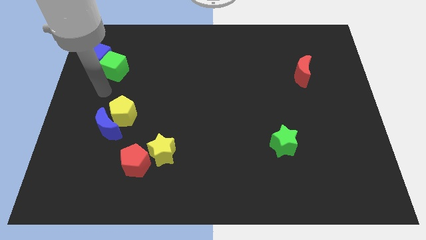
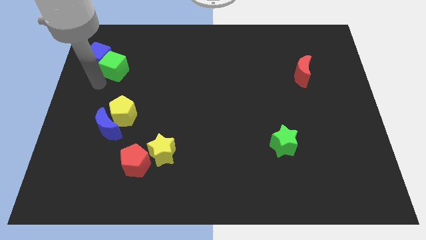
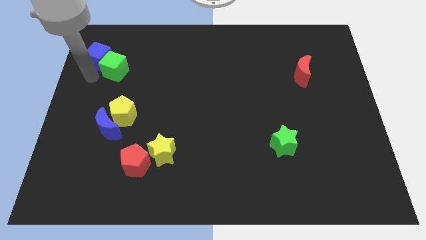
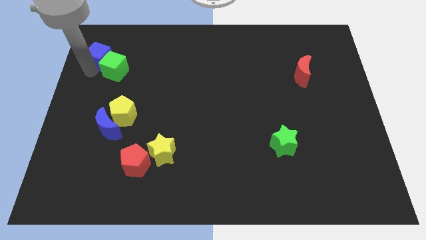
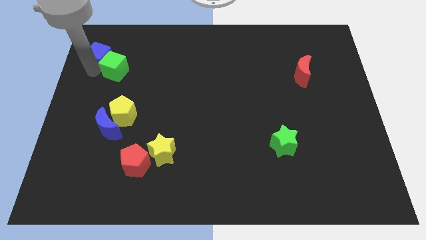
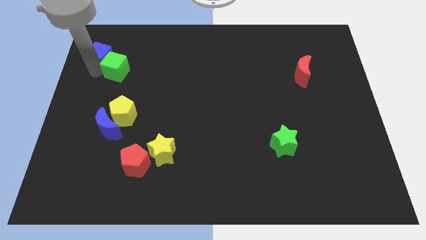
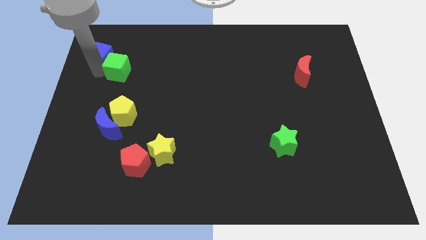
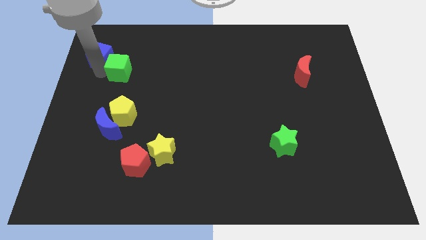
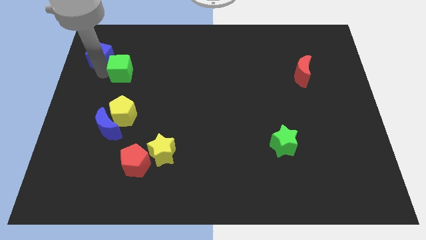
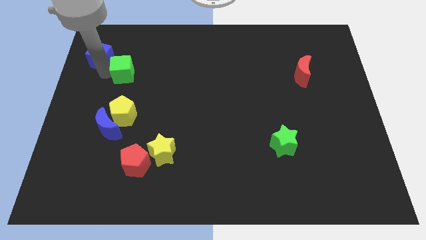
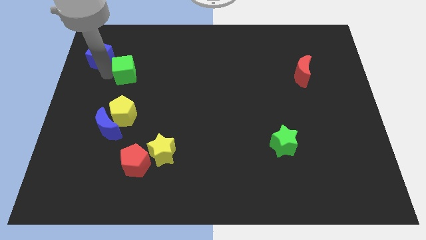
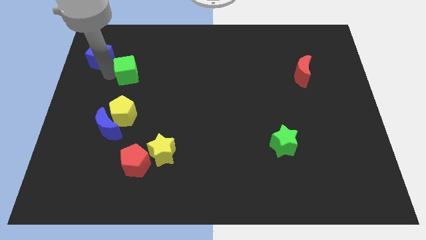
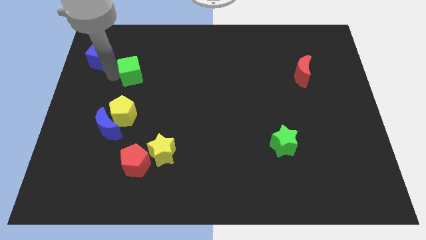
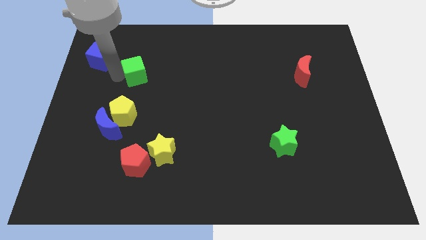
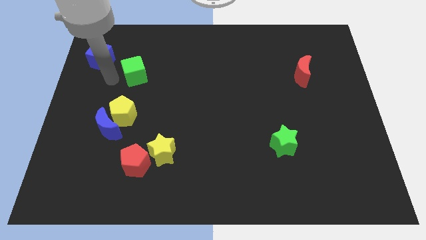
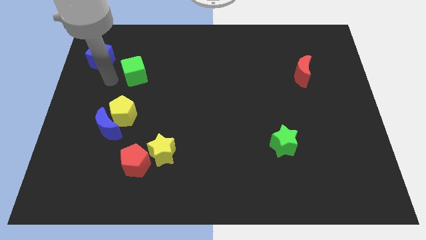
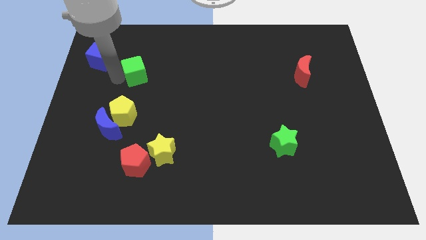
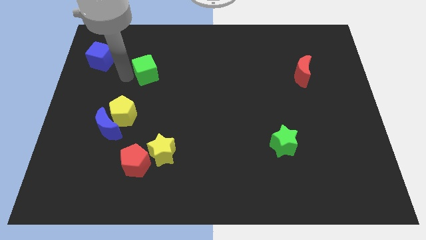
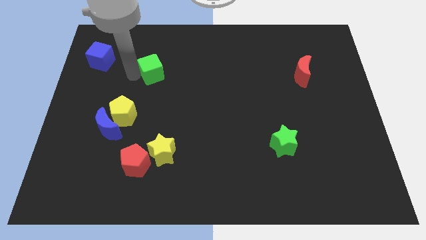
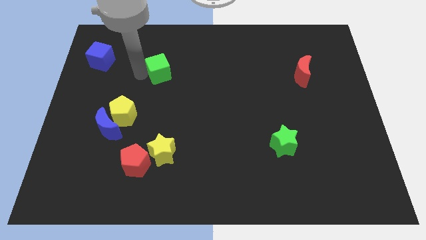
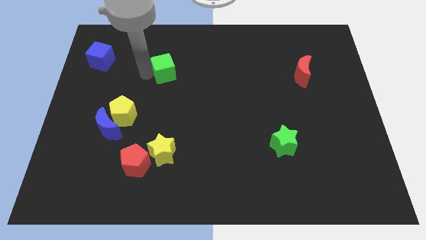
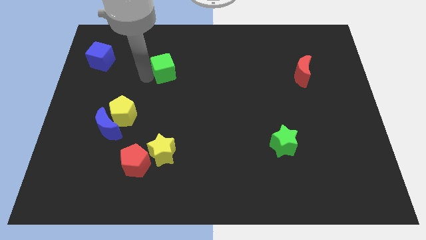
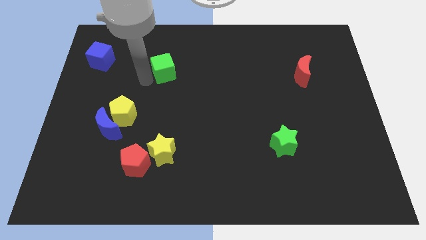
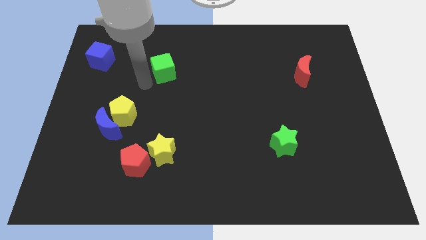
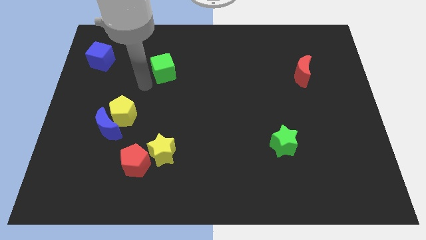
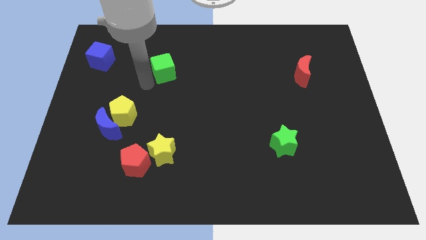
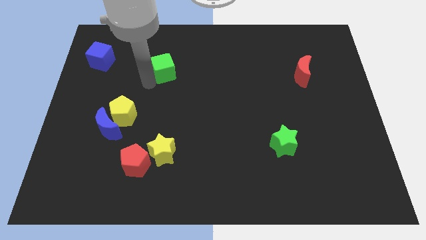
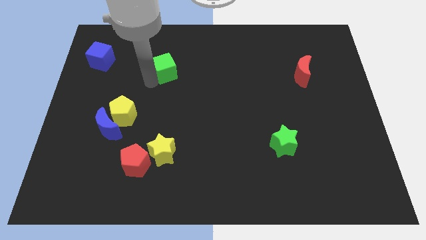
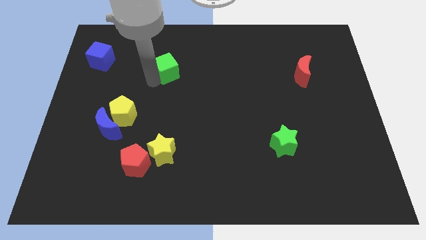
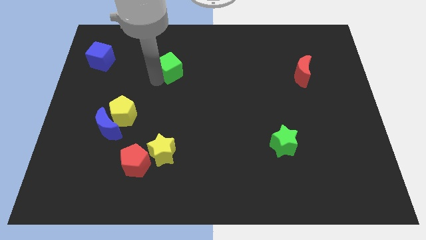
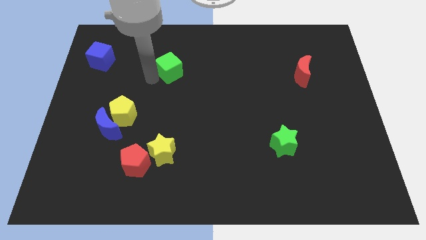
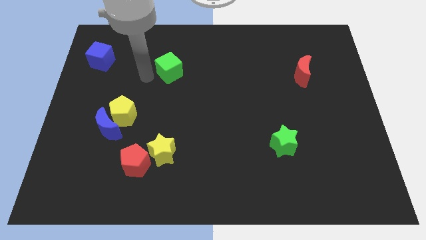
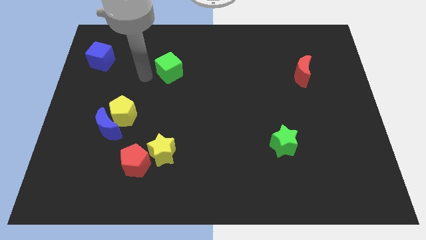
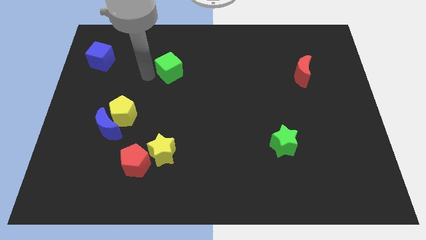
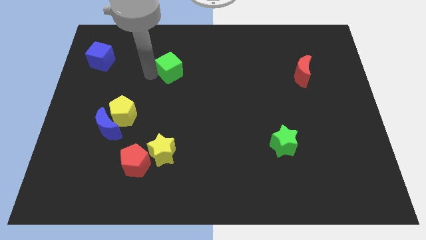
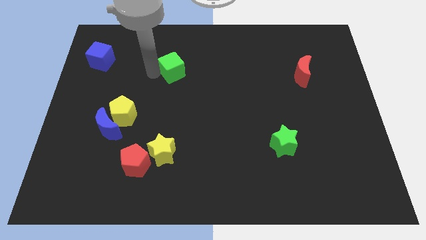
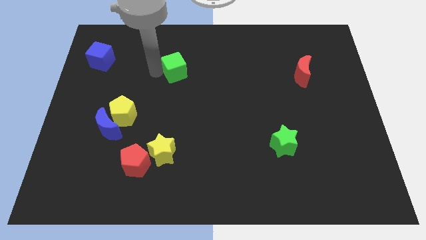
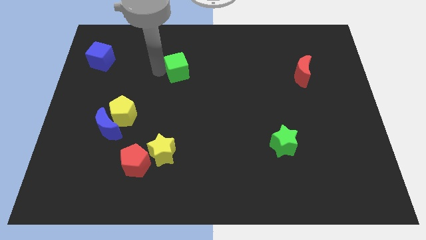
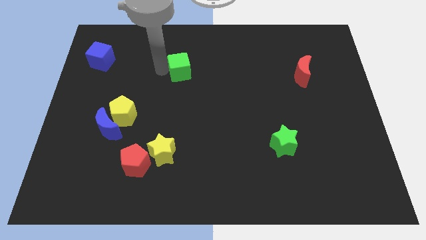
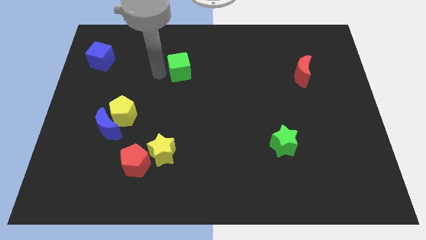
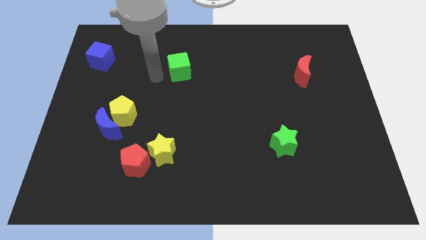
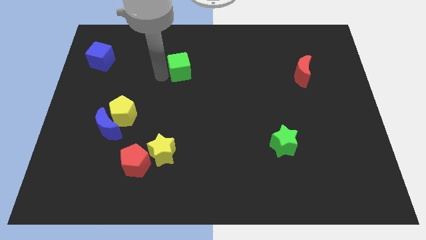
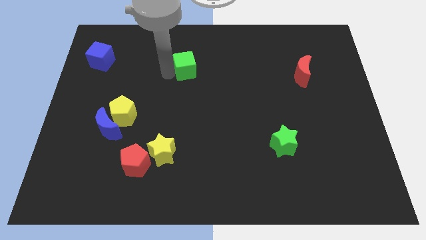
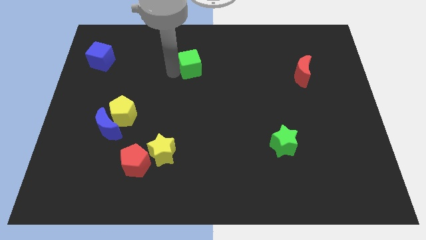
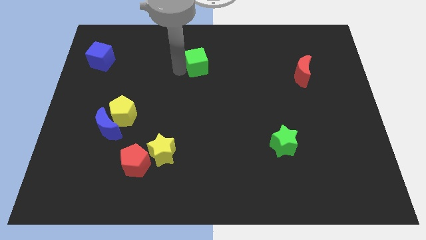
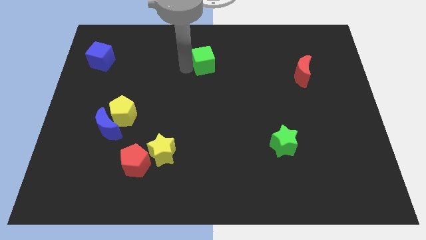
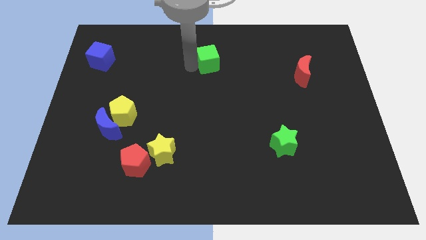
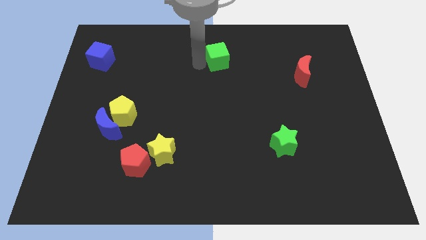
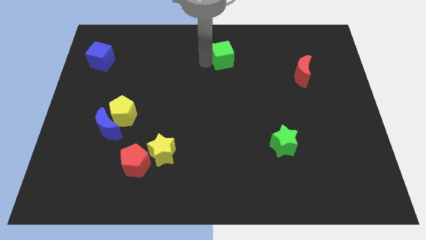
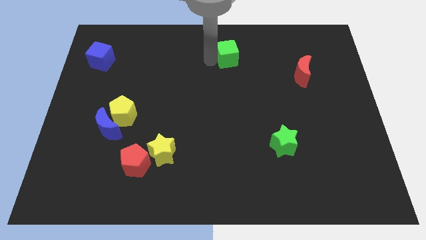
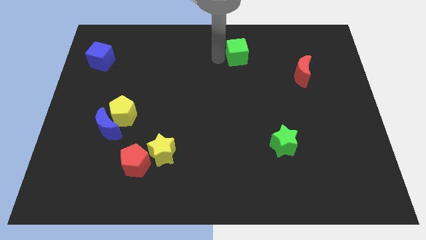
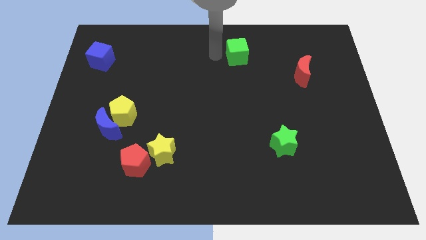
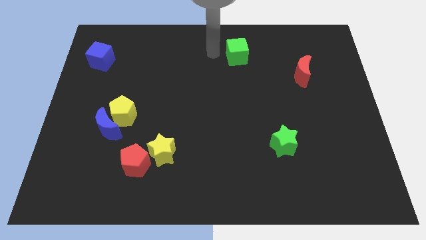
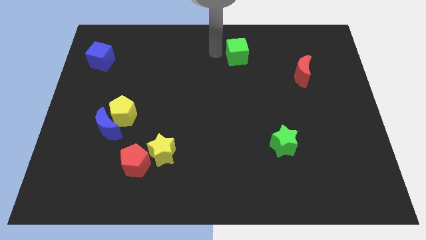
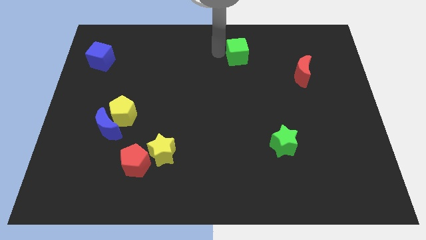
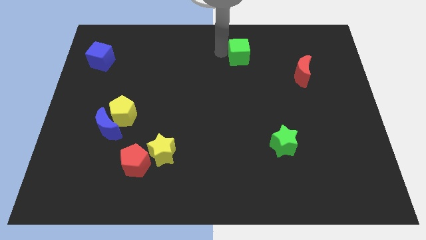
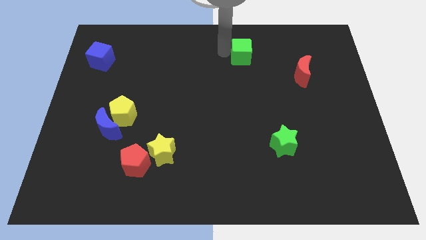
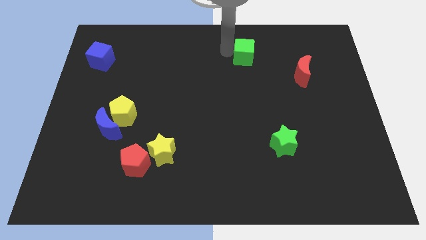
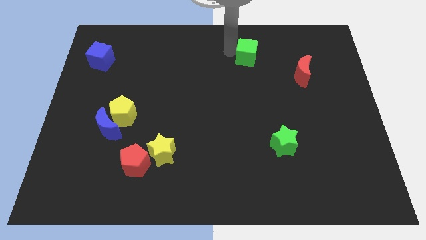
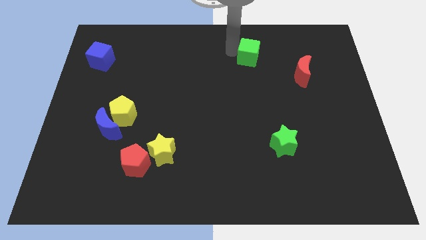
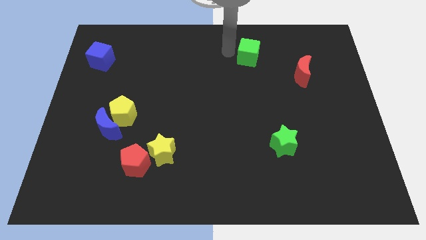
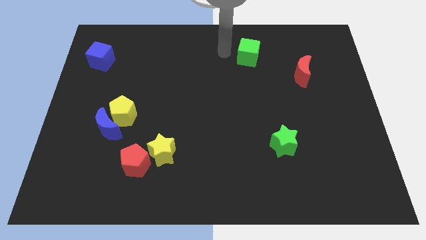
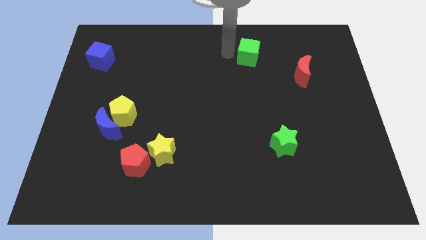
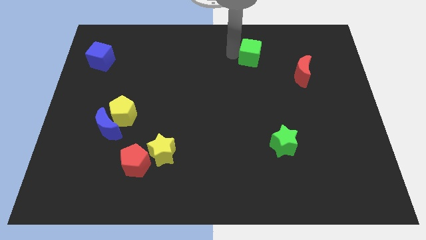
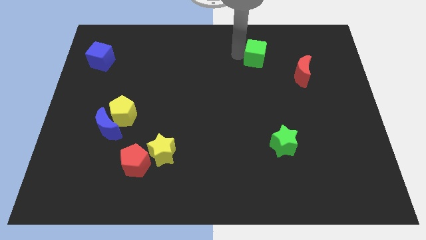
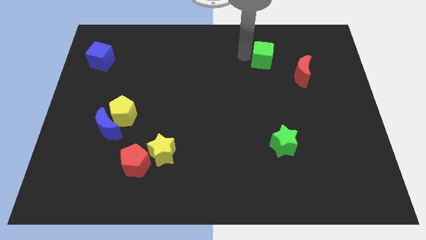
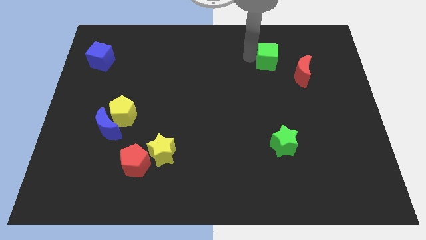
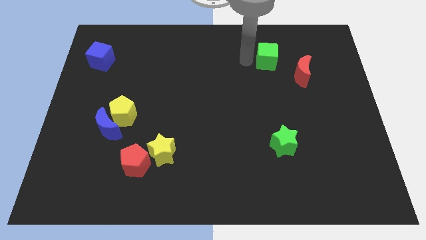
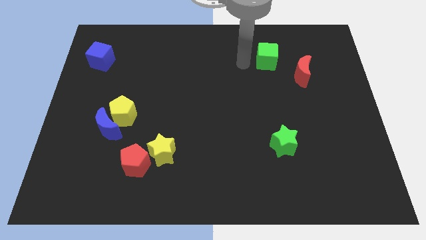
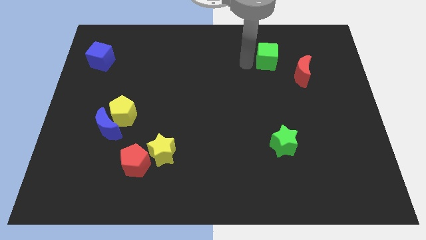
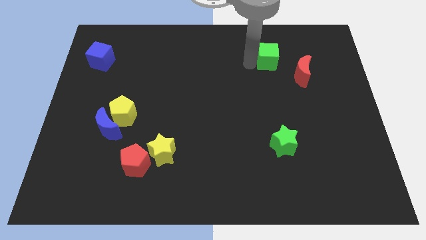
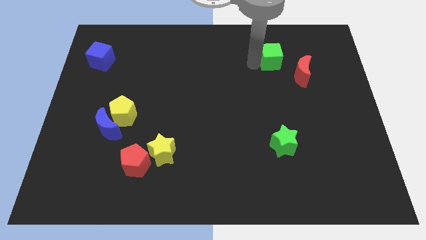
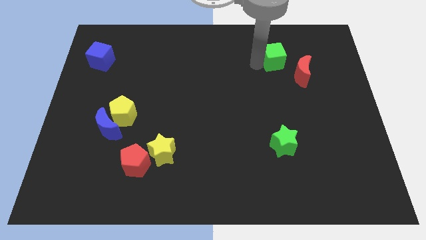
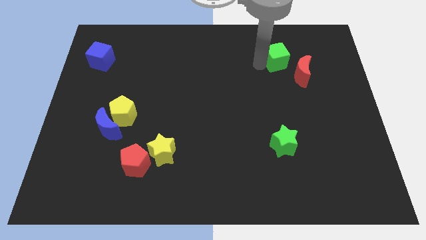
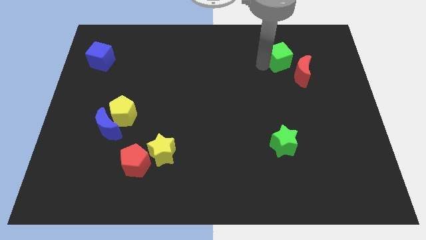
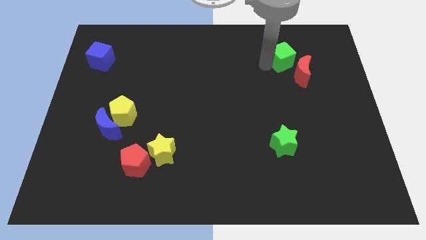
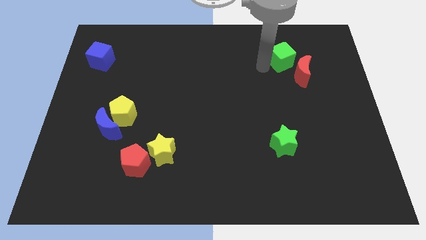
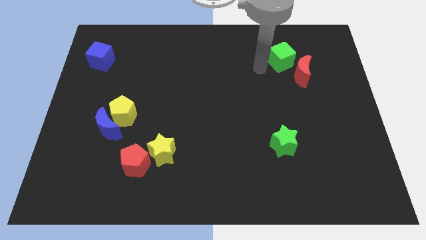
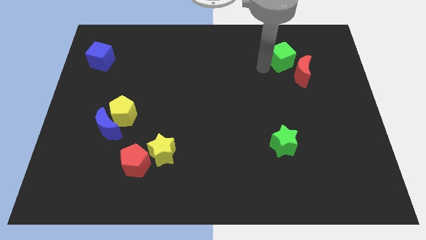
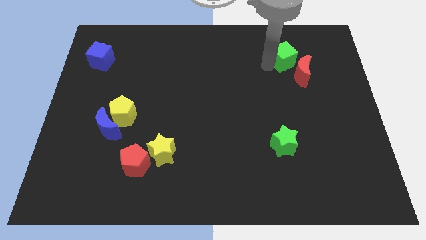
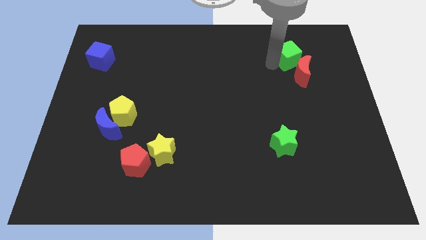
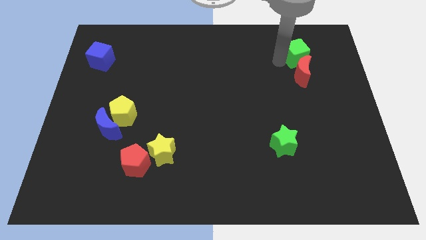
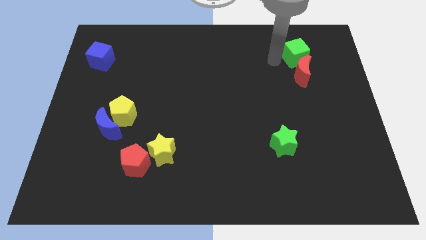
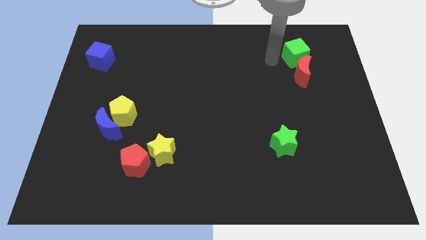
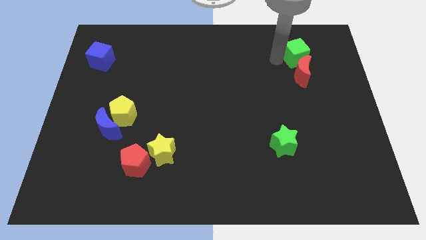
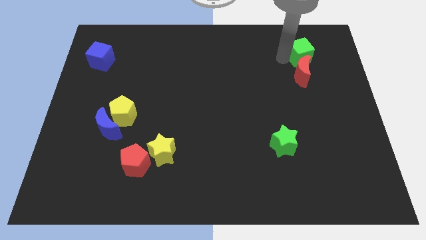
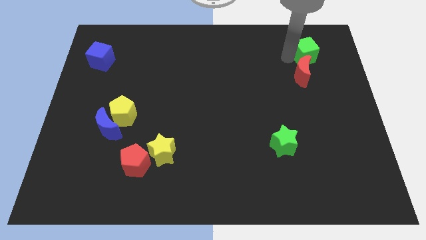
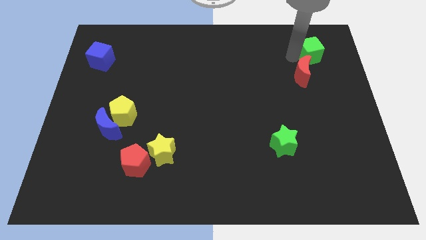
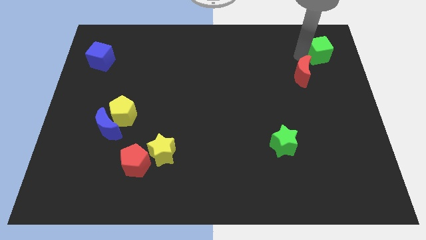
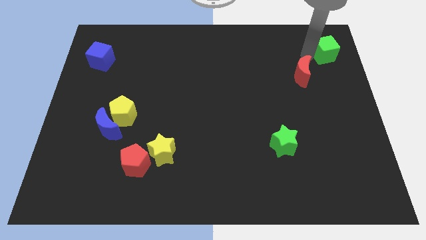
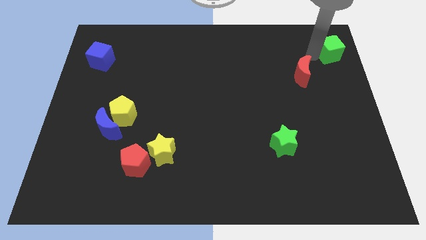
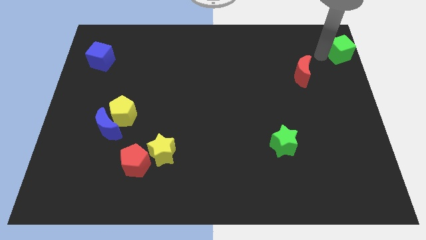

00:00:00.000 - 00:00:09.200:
put the green cube to the upper right corner
